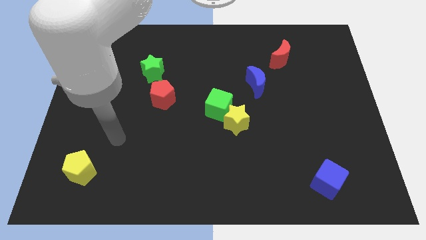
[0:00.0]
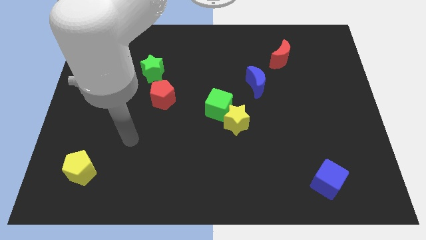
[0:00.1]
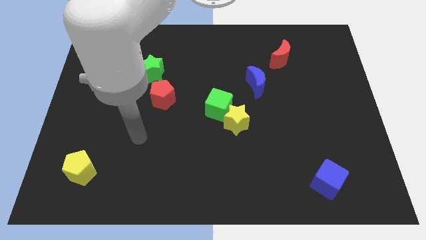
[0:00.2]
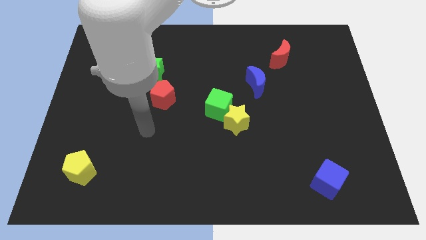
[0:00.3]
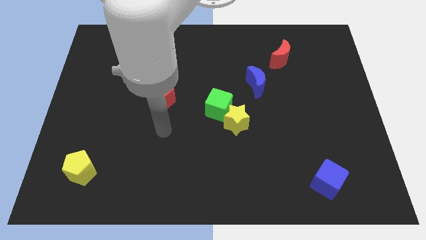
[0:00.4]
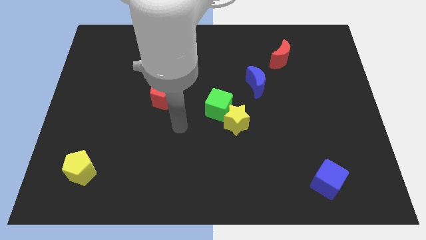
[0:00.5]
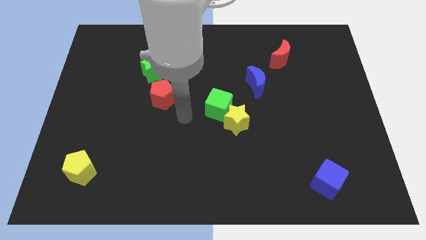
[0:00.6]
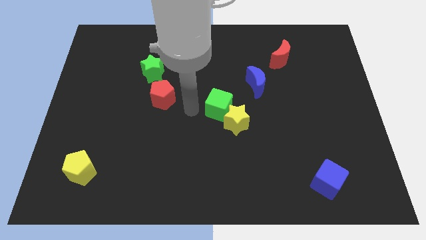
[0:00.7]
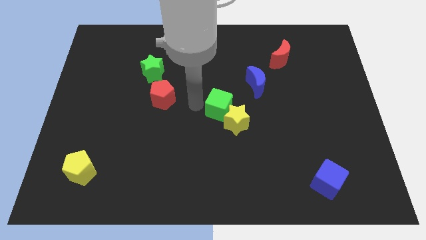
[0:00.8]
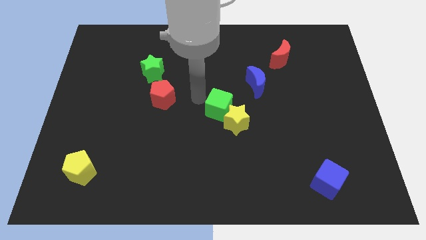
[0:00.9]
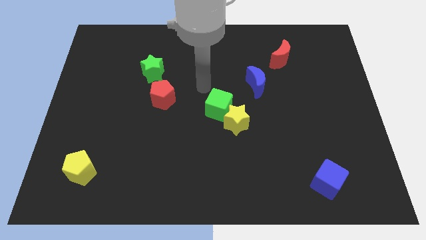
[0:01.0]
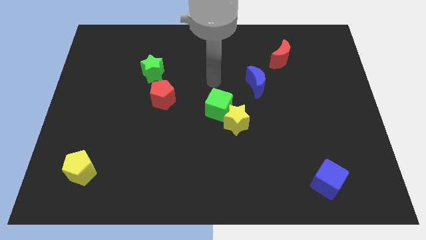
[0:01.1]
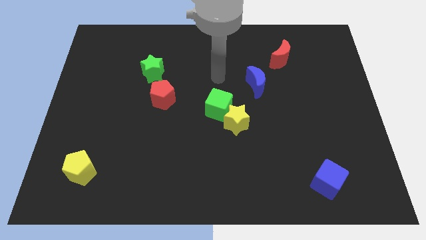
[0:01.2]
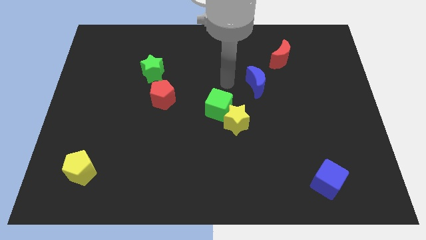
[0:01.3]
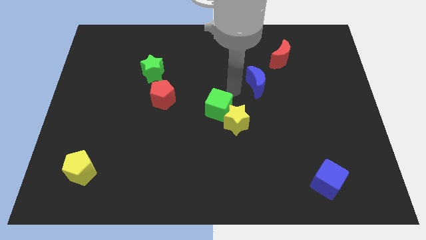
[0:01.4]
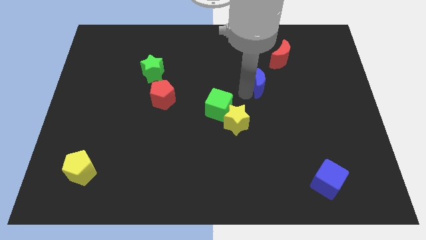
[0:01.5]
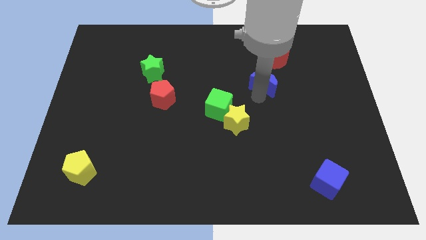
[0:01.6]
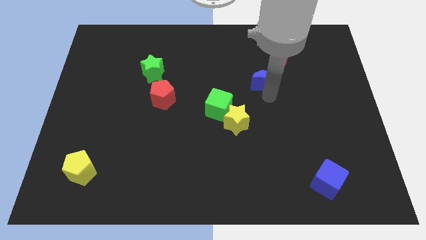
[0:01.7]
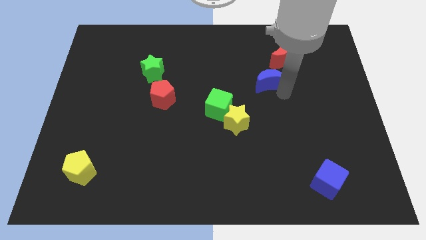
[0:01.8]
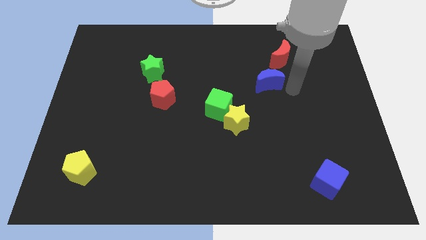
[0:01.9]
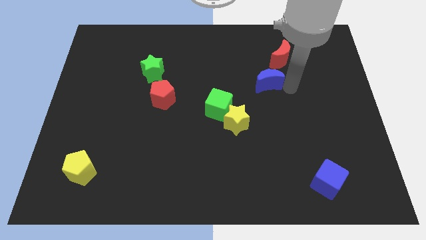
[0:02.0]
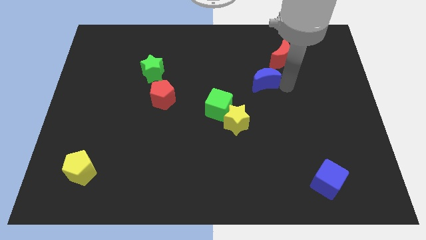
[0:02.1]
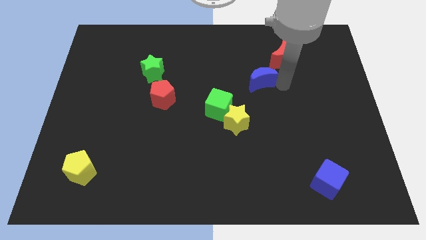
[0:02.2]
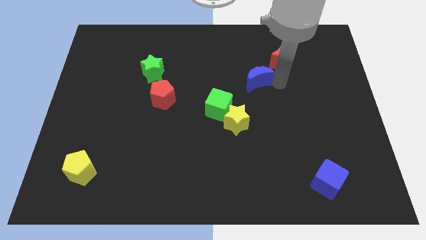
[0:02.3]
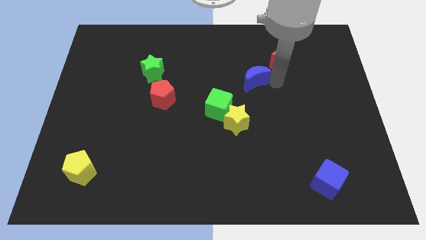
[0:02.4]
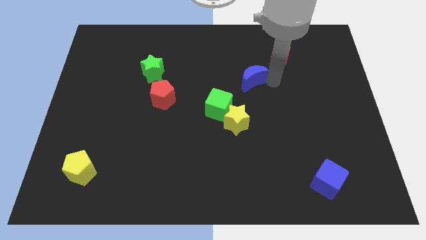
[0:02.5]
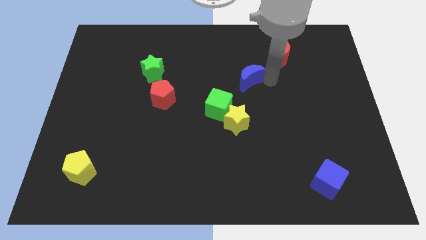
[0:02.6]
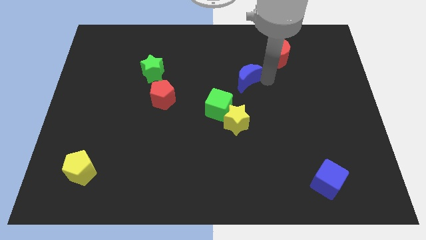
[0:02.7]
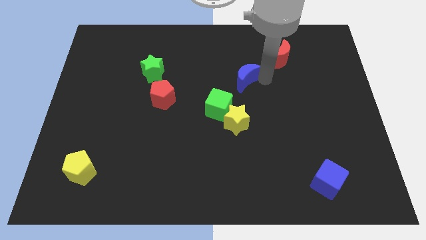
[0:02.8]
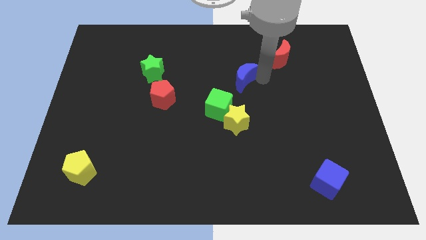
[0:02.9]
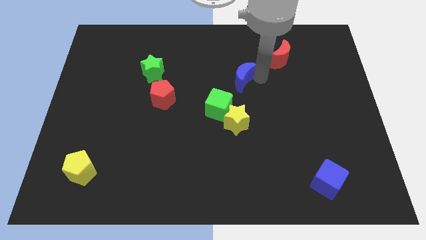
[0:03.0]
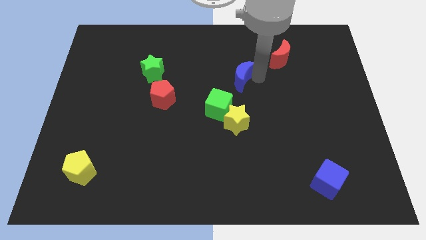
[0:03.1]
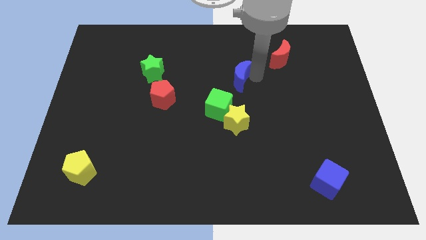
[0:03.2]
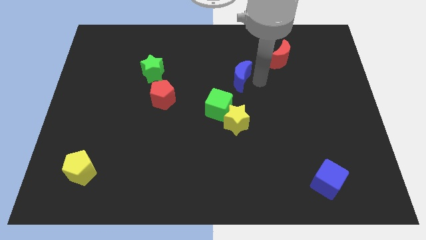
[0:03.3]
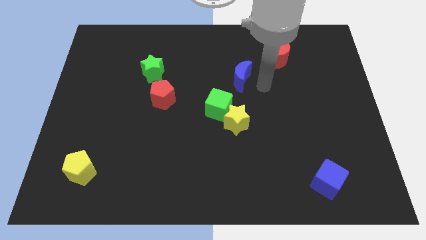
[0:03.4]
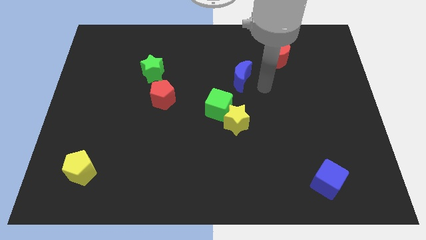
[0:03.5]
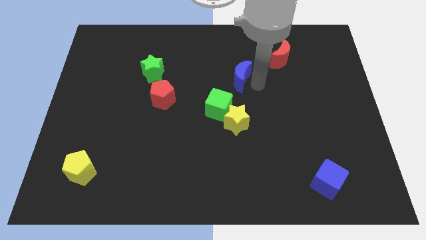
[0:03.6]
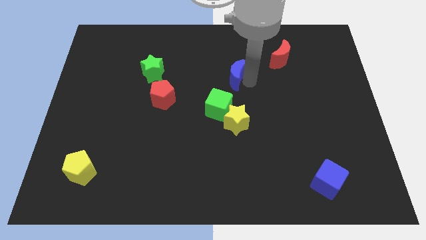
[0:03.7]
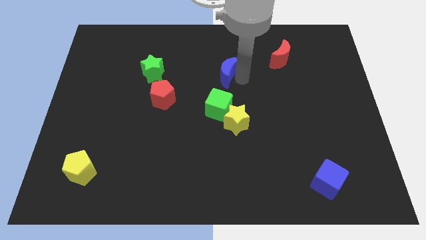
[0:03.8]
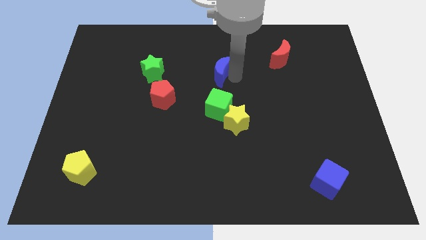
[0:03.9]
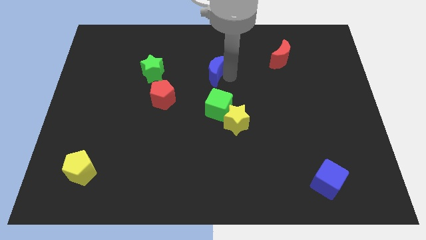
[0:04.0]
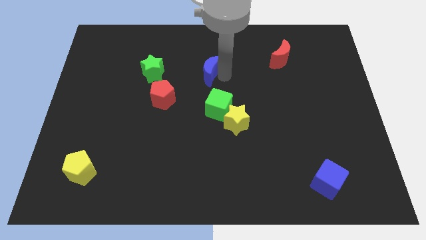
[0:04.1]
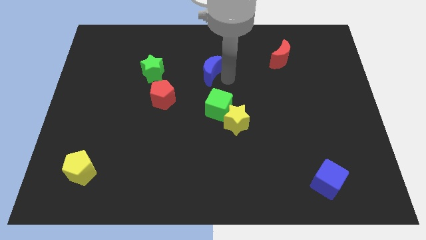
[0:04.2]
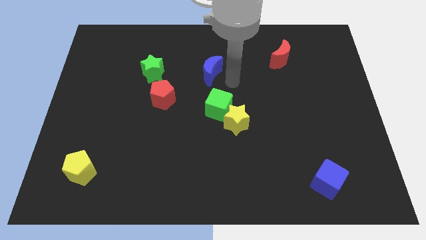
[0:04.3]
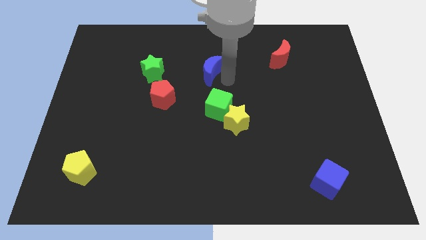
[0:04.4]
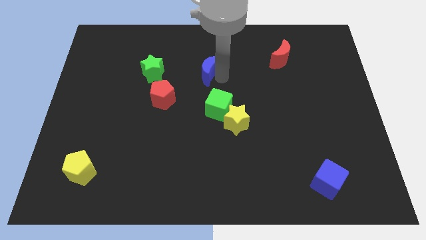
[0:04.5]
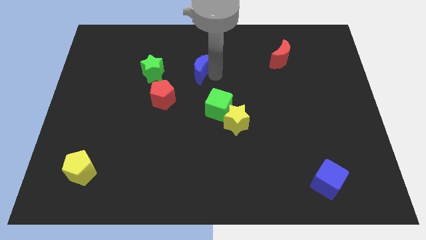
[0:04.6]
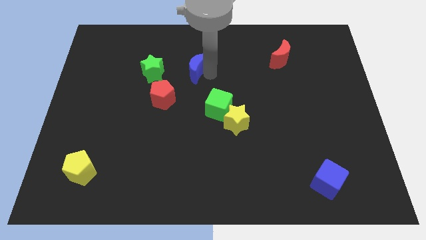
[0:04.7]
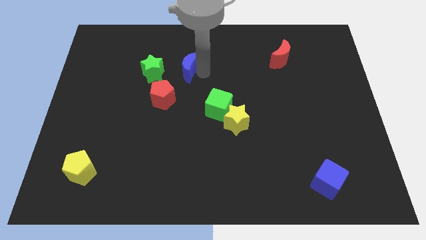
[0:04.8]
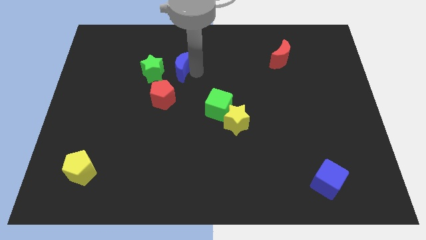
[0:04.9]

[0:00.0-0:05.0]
put the blue moon to the top right side of the green star

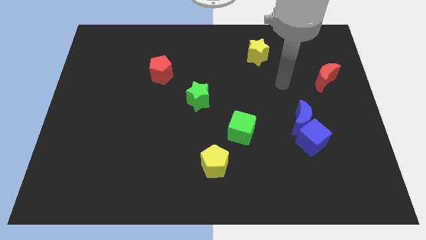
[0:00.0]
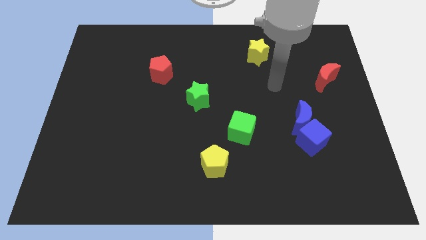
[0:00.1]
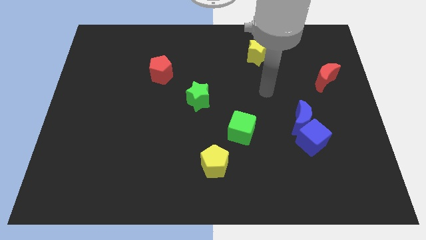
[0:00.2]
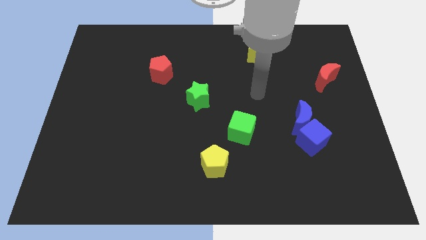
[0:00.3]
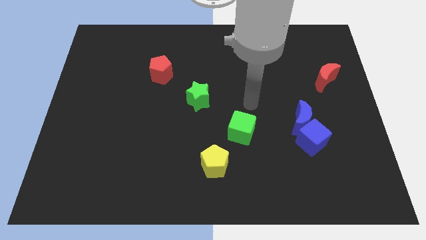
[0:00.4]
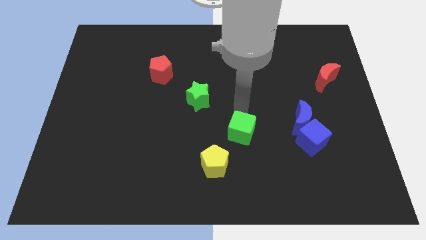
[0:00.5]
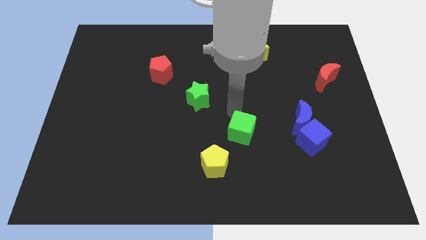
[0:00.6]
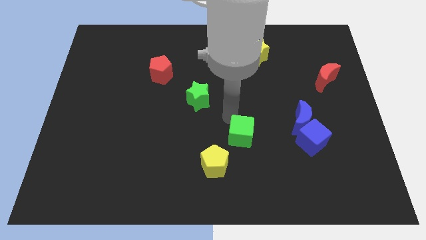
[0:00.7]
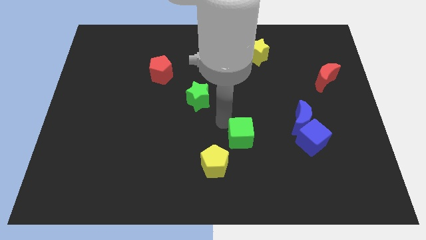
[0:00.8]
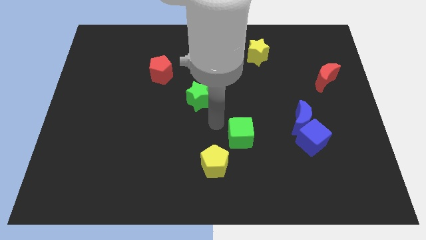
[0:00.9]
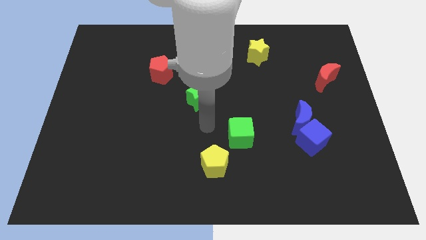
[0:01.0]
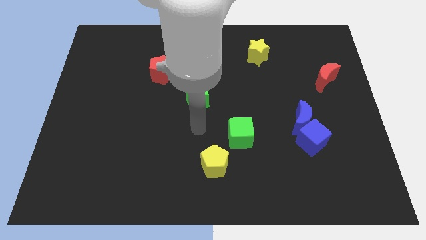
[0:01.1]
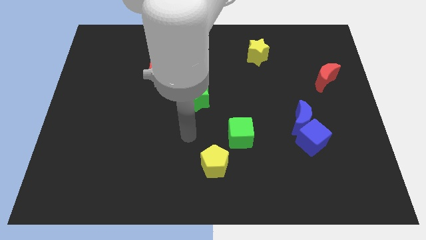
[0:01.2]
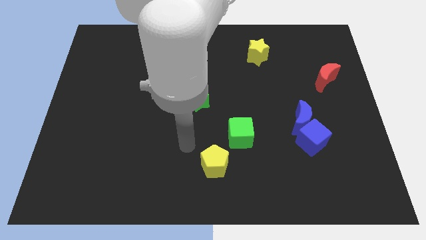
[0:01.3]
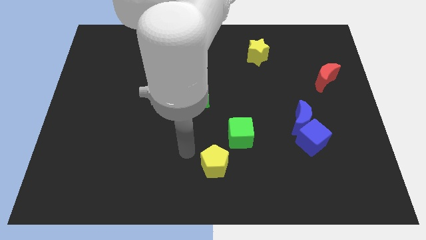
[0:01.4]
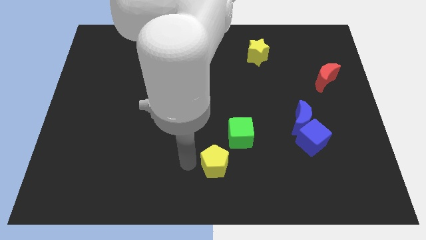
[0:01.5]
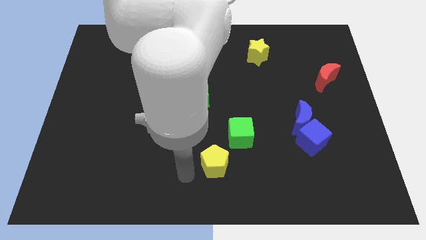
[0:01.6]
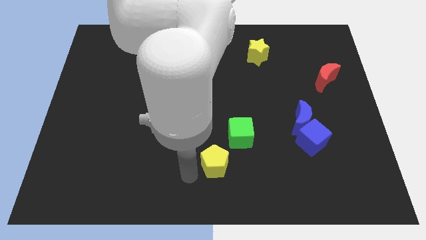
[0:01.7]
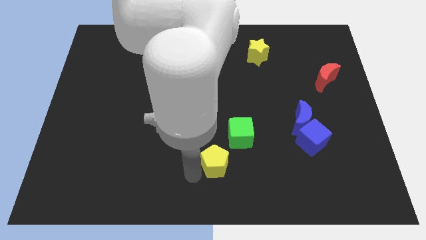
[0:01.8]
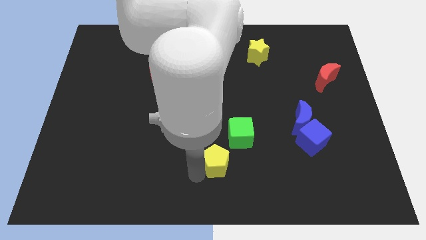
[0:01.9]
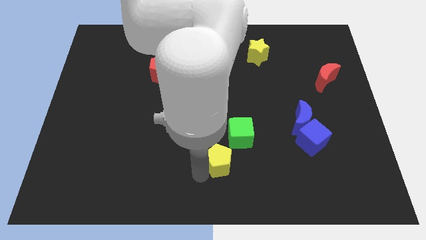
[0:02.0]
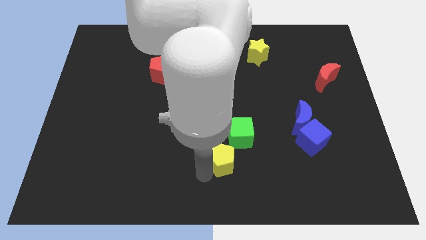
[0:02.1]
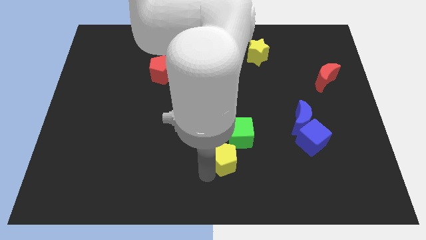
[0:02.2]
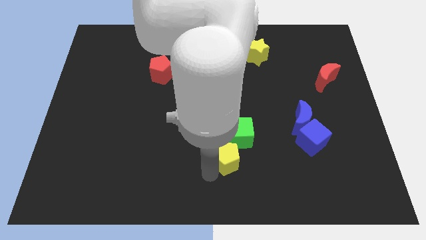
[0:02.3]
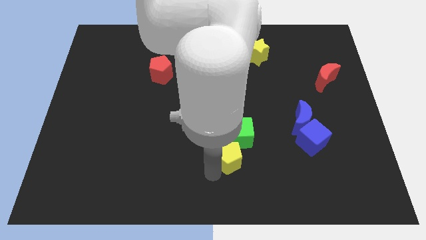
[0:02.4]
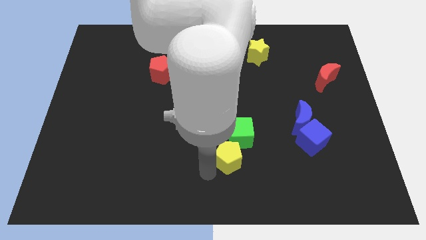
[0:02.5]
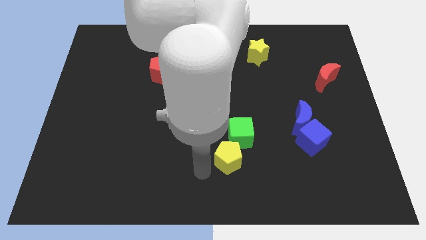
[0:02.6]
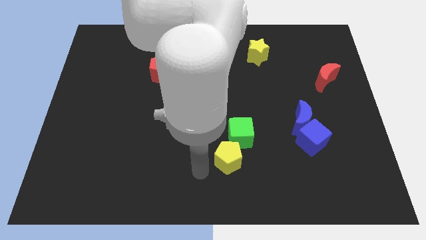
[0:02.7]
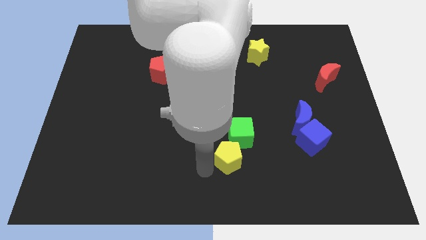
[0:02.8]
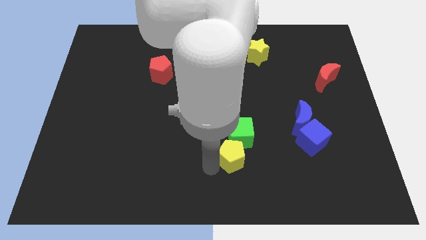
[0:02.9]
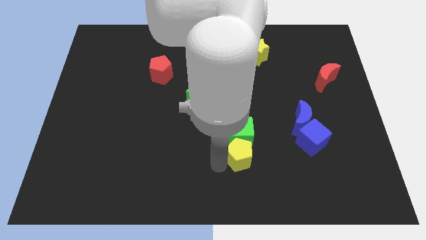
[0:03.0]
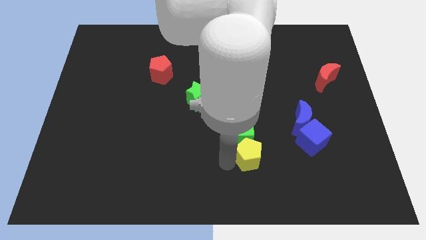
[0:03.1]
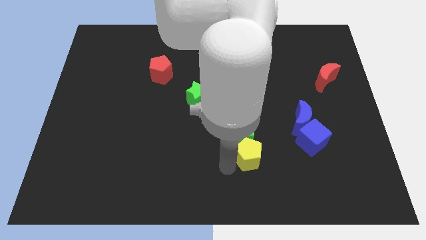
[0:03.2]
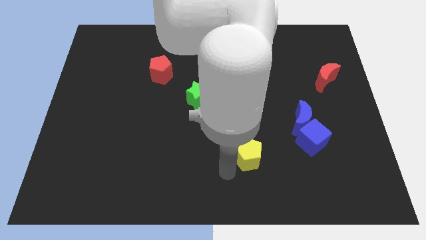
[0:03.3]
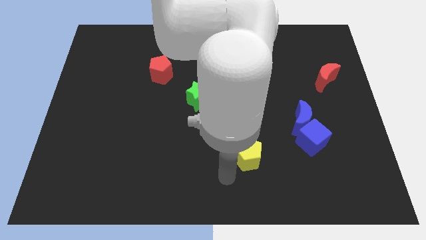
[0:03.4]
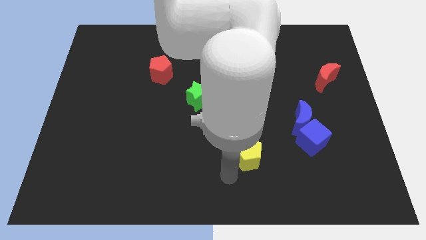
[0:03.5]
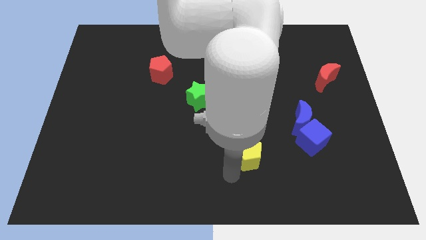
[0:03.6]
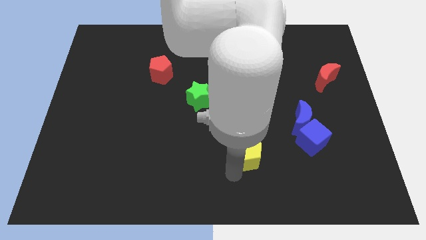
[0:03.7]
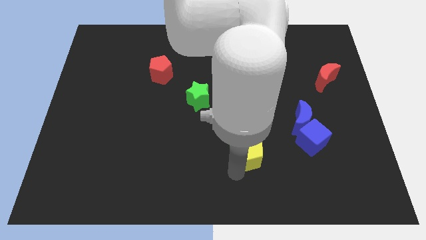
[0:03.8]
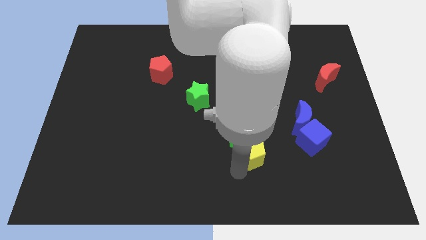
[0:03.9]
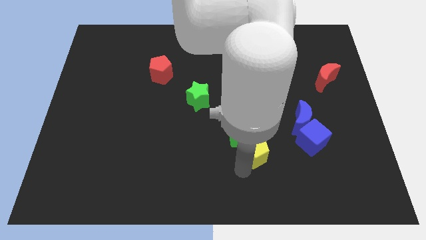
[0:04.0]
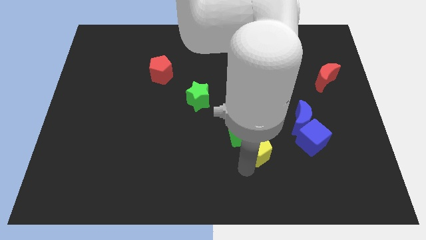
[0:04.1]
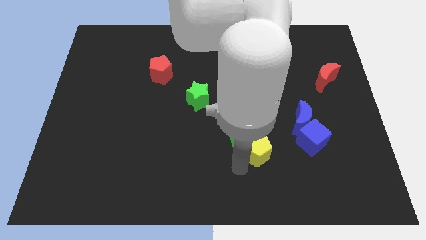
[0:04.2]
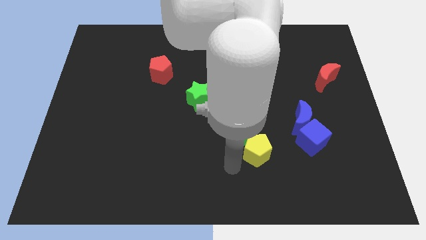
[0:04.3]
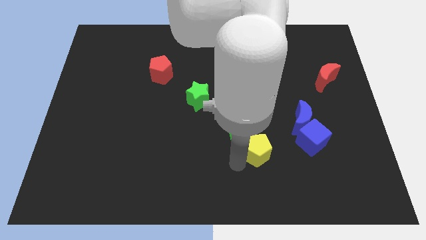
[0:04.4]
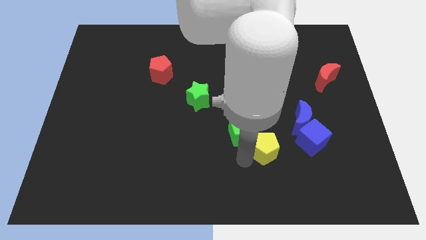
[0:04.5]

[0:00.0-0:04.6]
push the yellow pentagon diagonally down and to the left of the blue moon
